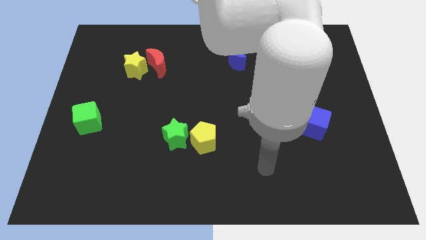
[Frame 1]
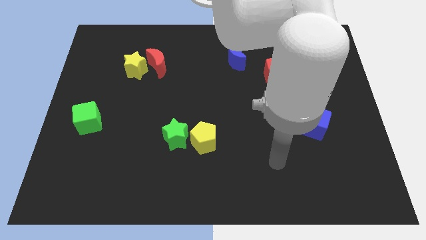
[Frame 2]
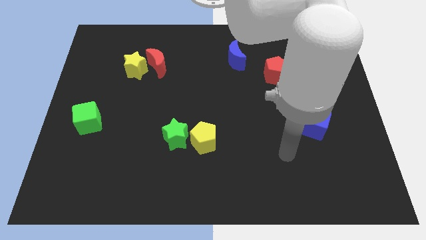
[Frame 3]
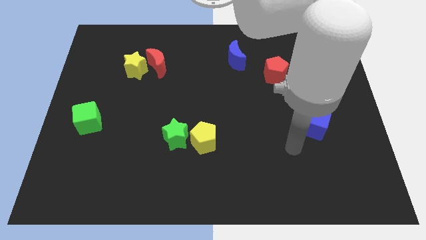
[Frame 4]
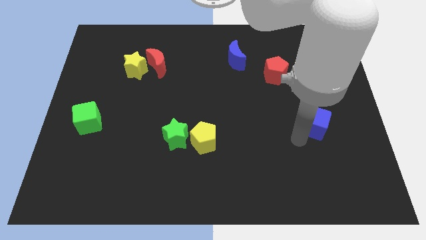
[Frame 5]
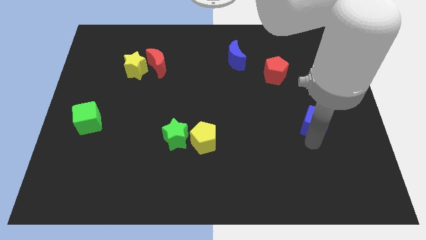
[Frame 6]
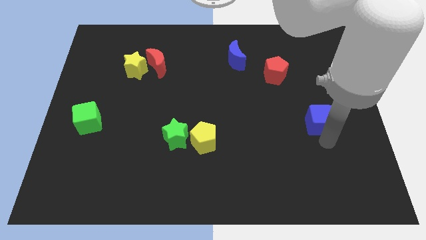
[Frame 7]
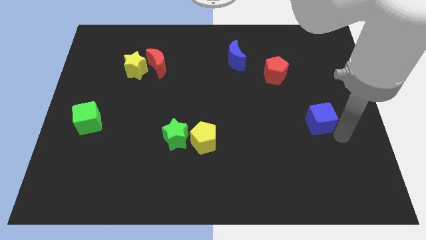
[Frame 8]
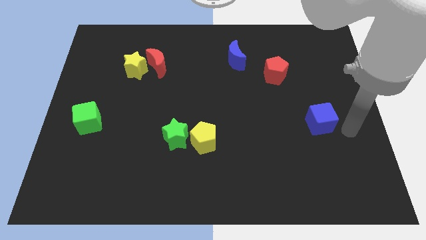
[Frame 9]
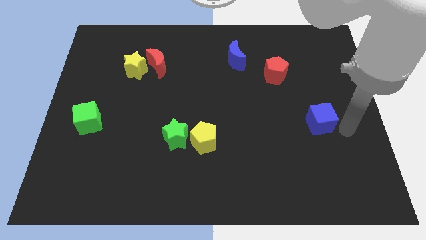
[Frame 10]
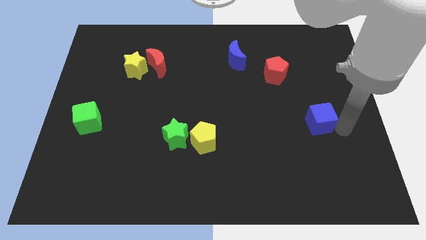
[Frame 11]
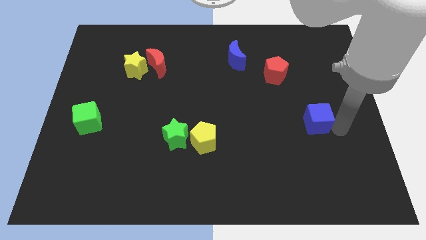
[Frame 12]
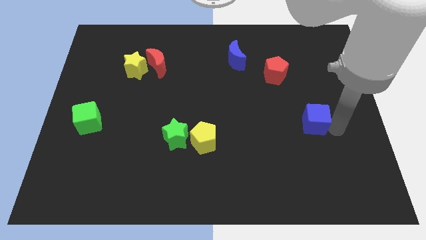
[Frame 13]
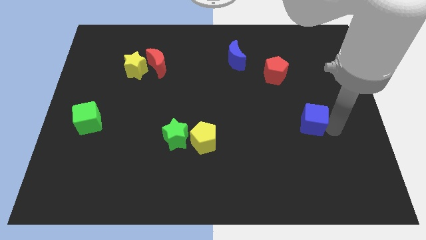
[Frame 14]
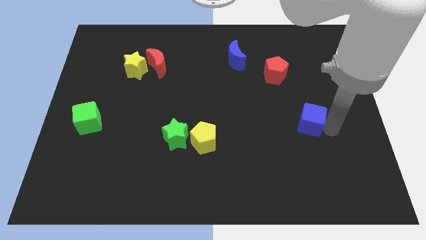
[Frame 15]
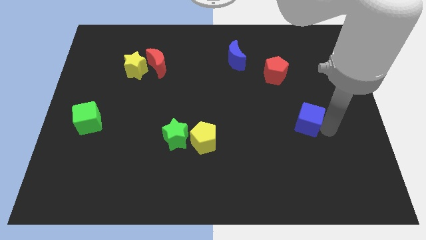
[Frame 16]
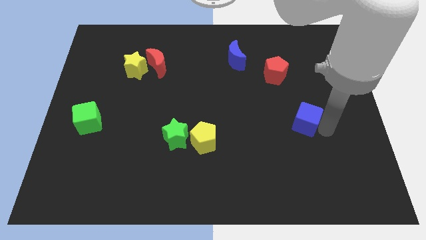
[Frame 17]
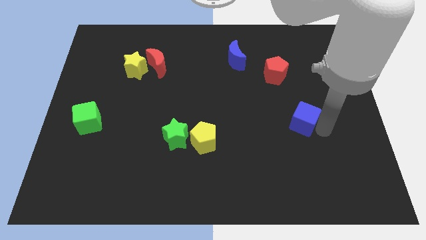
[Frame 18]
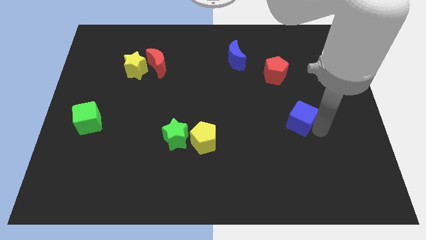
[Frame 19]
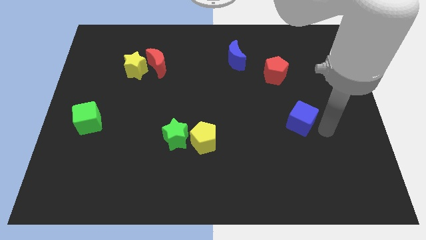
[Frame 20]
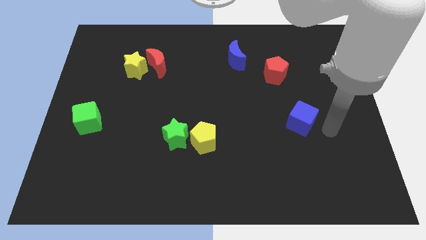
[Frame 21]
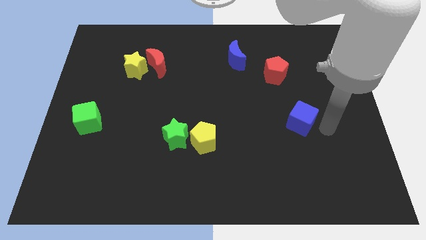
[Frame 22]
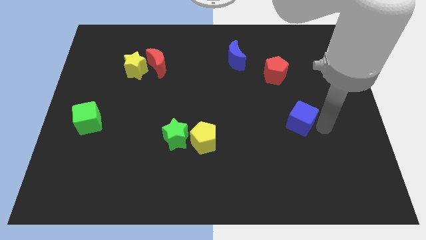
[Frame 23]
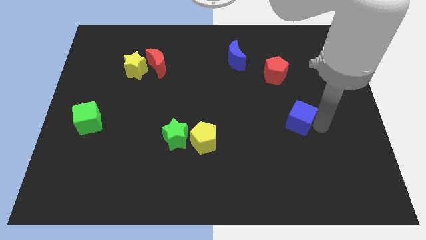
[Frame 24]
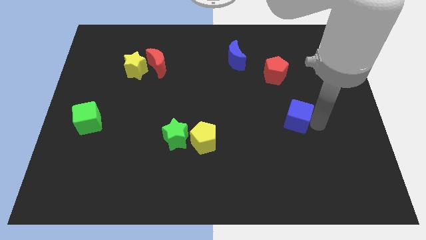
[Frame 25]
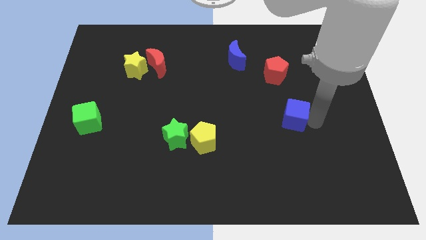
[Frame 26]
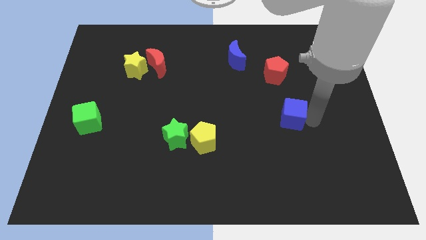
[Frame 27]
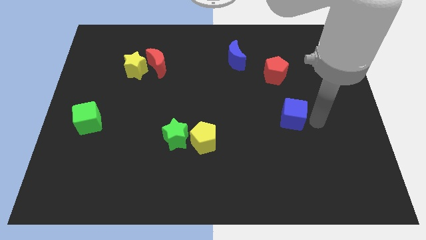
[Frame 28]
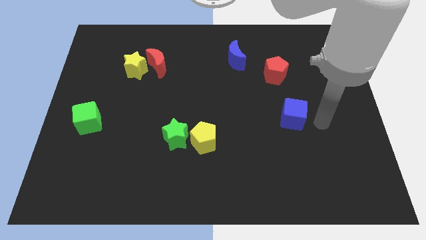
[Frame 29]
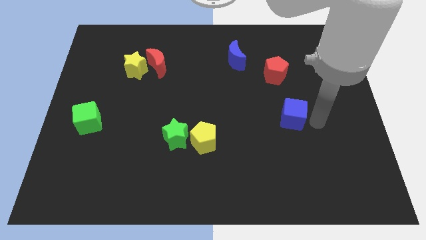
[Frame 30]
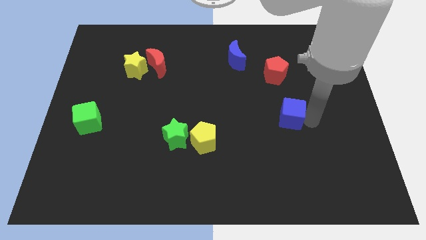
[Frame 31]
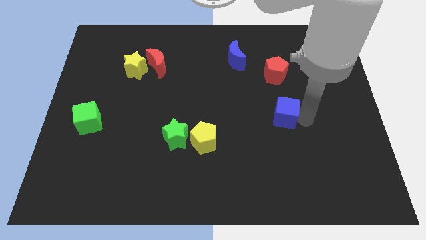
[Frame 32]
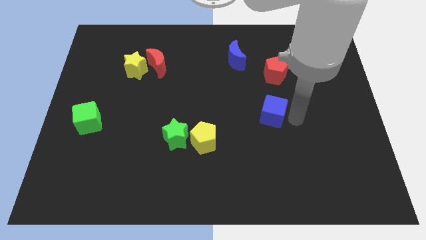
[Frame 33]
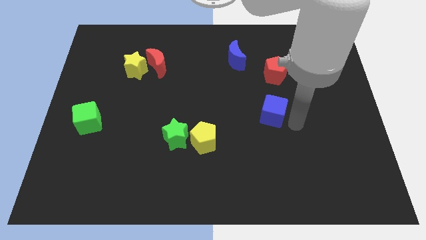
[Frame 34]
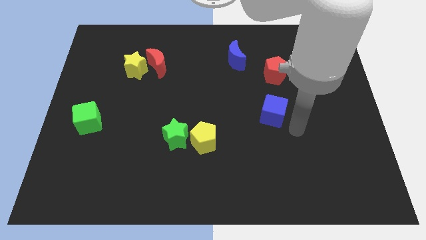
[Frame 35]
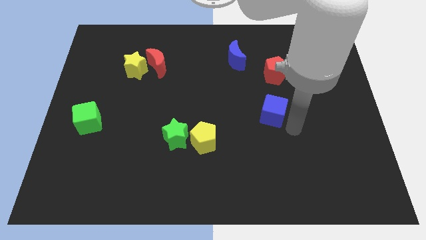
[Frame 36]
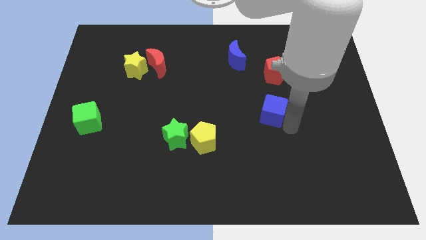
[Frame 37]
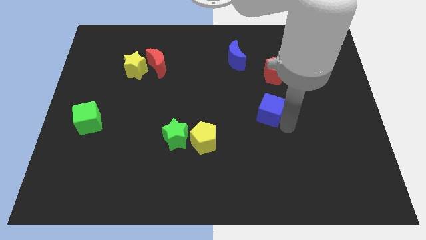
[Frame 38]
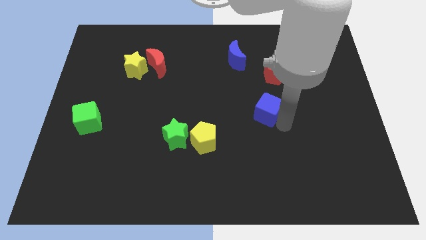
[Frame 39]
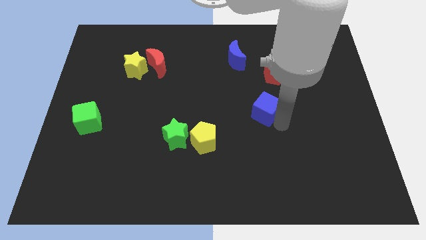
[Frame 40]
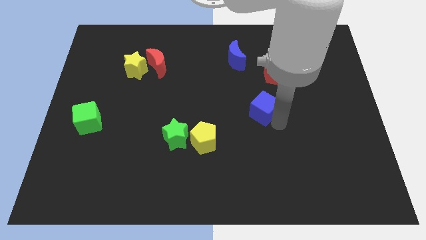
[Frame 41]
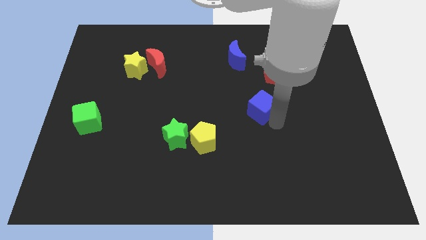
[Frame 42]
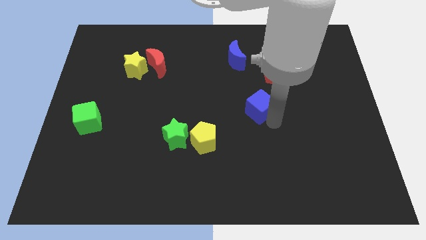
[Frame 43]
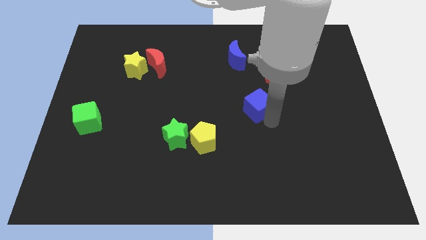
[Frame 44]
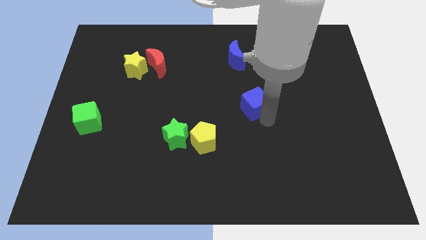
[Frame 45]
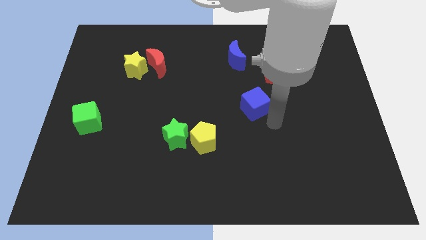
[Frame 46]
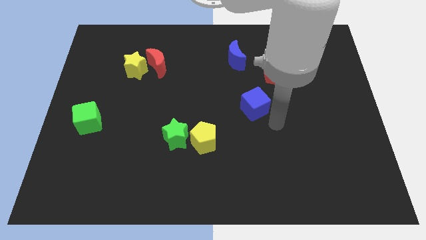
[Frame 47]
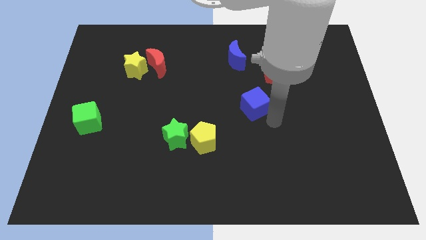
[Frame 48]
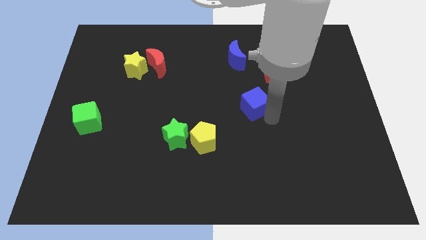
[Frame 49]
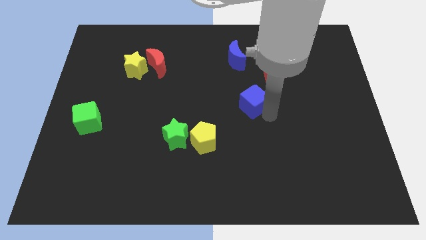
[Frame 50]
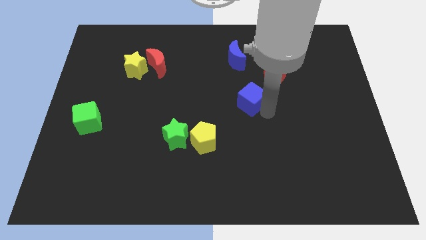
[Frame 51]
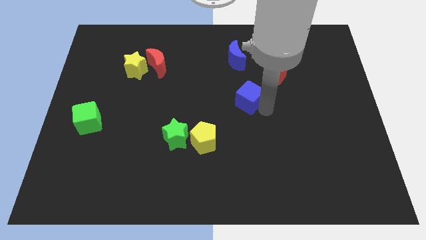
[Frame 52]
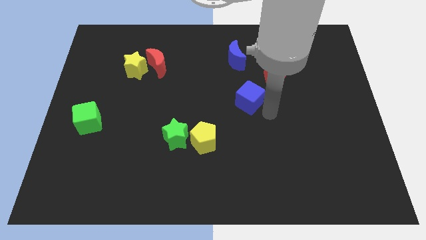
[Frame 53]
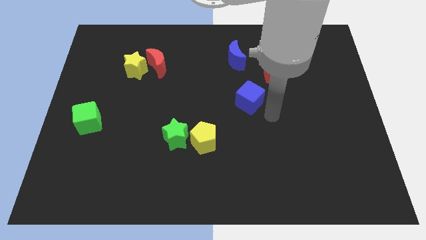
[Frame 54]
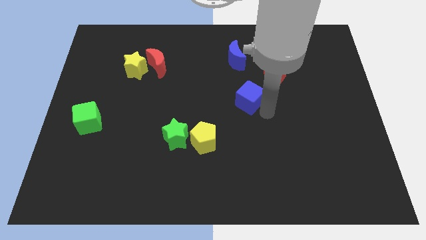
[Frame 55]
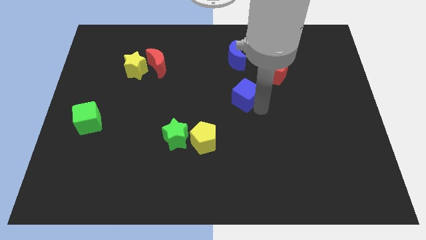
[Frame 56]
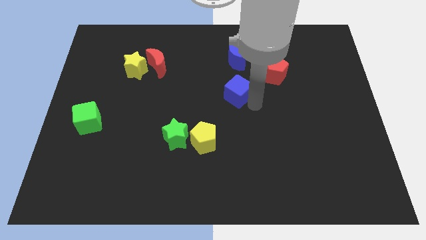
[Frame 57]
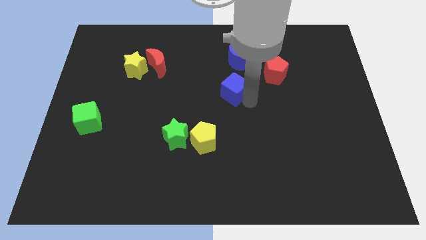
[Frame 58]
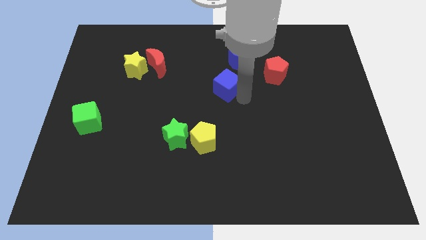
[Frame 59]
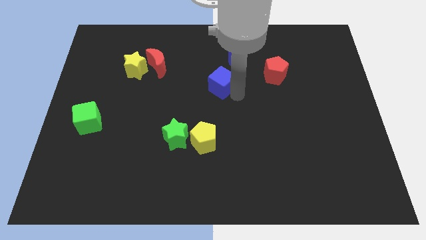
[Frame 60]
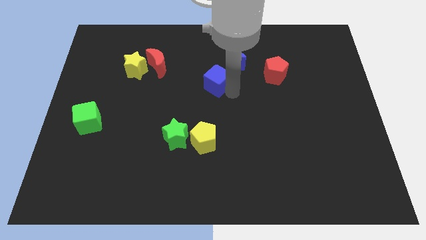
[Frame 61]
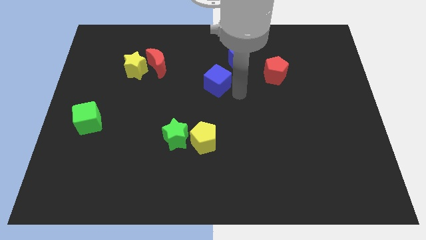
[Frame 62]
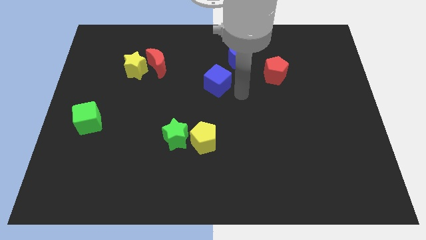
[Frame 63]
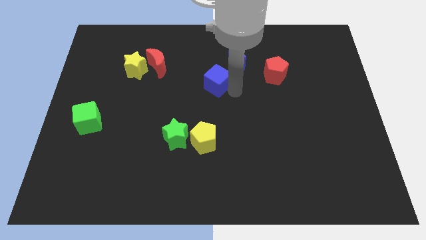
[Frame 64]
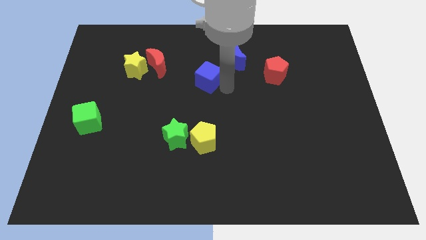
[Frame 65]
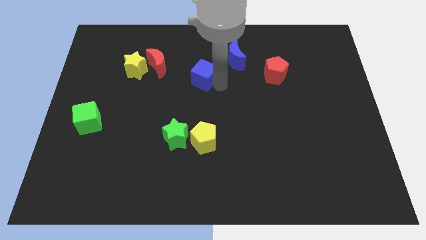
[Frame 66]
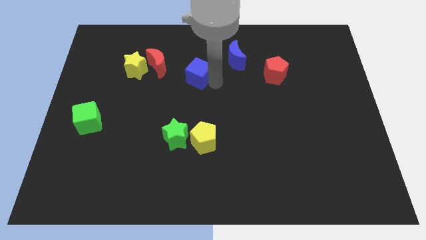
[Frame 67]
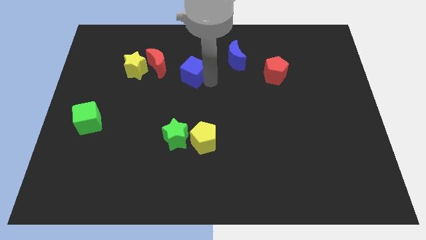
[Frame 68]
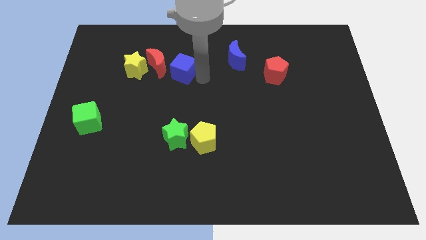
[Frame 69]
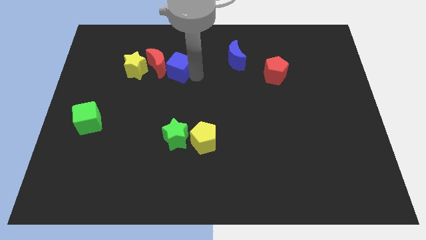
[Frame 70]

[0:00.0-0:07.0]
slide the blue cube towards the red moon
